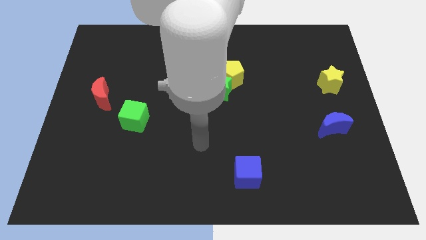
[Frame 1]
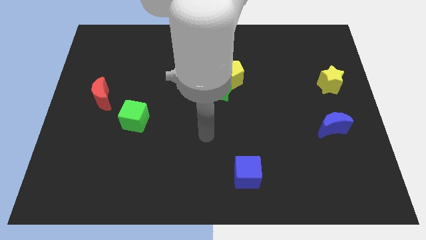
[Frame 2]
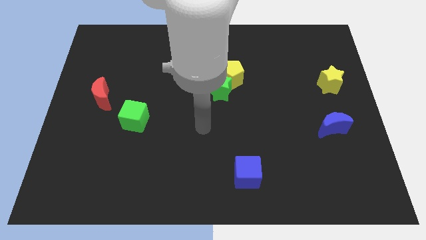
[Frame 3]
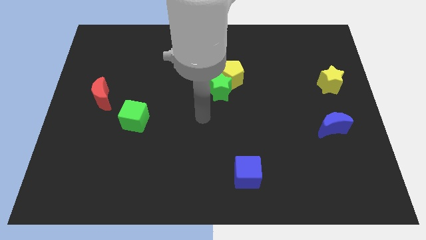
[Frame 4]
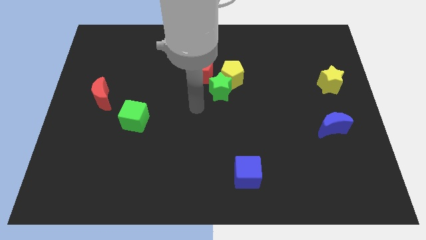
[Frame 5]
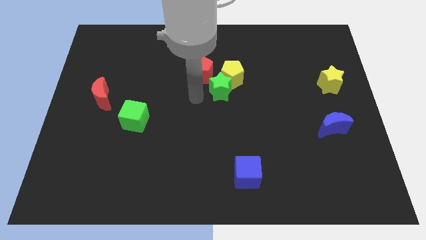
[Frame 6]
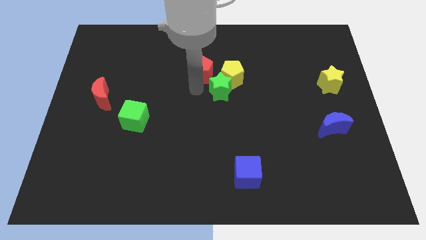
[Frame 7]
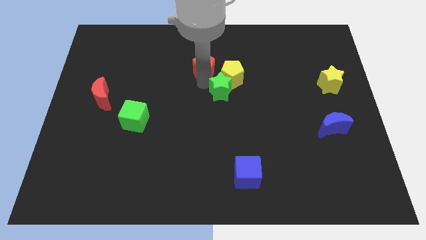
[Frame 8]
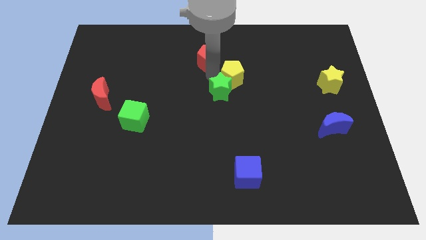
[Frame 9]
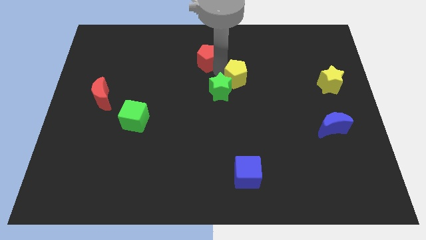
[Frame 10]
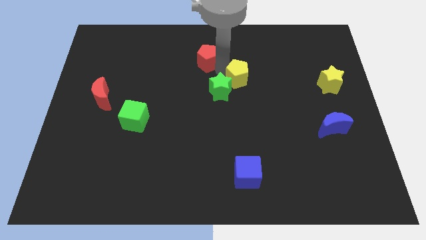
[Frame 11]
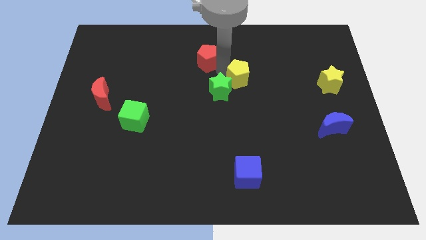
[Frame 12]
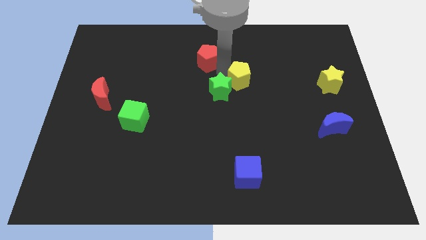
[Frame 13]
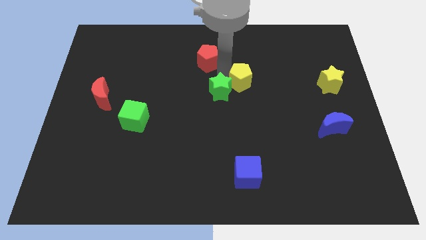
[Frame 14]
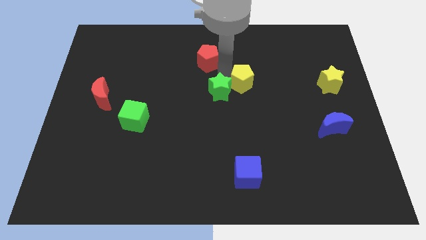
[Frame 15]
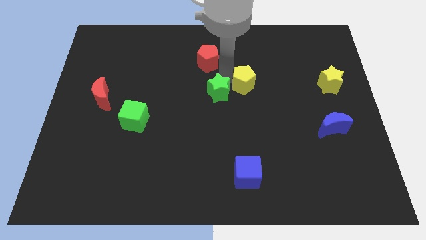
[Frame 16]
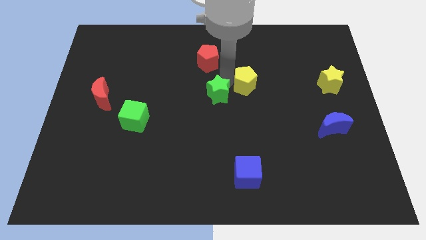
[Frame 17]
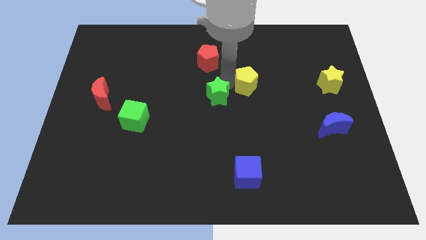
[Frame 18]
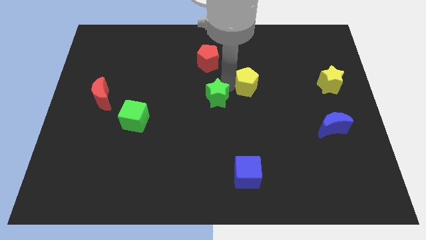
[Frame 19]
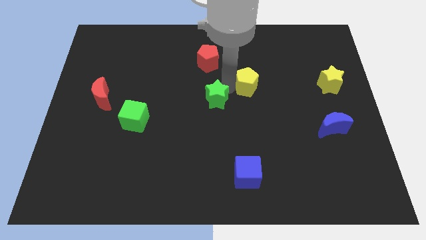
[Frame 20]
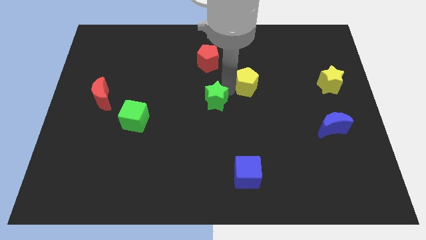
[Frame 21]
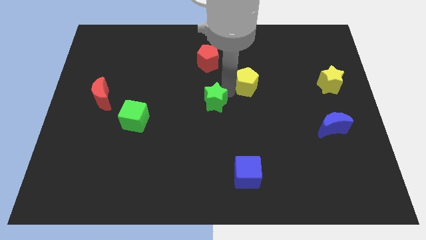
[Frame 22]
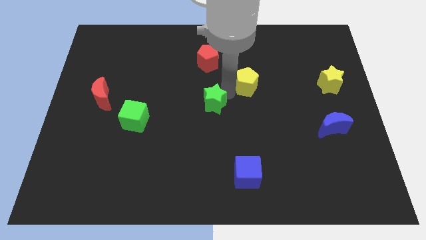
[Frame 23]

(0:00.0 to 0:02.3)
pull the green star apart from the yellow pentagon and red pentagon

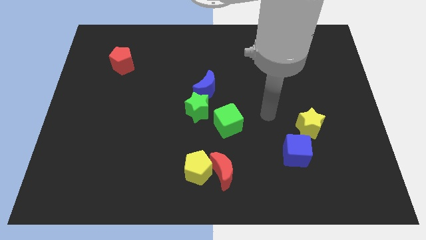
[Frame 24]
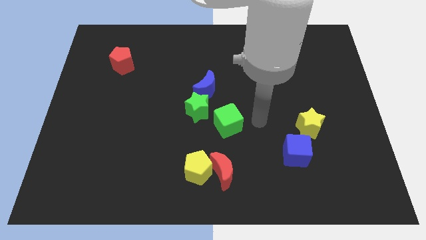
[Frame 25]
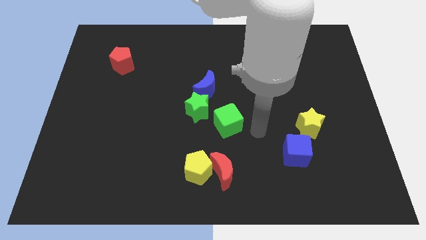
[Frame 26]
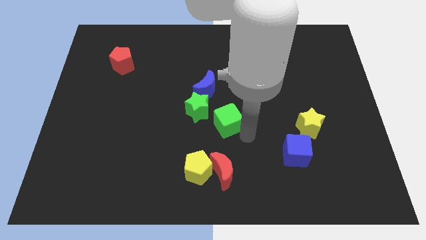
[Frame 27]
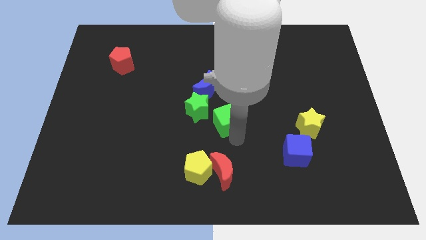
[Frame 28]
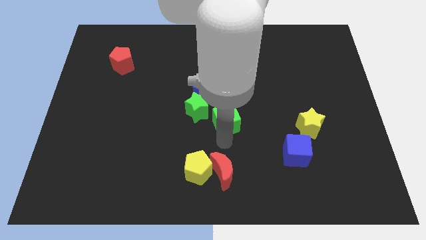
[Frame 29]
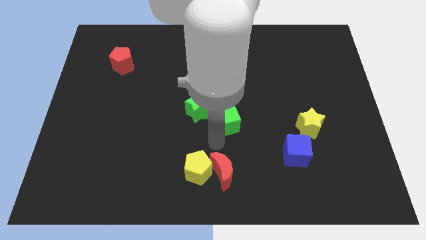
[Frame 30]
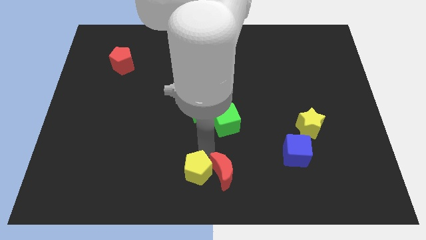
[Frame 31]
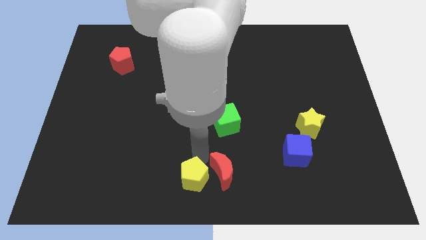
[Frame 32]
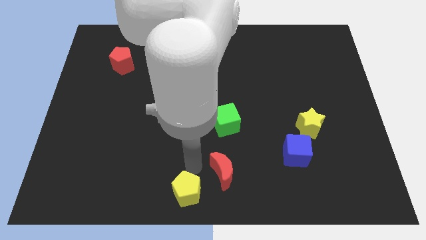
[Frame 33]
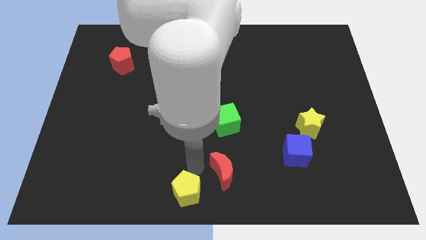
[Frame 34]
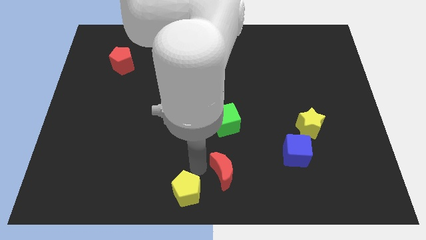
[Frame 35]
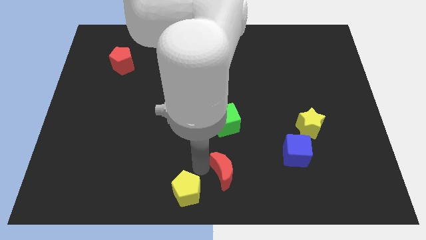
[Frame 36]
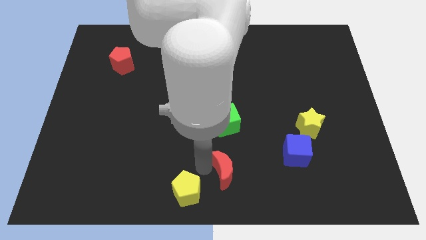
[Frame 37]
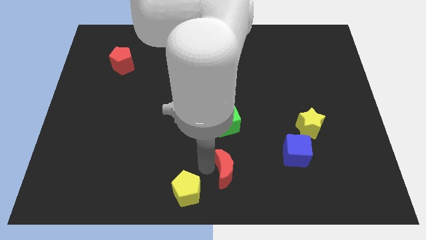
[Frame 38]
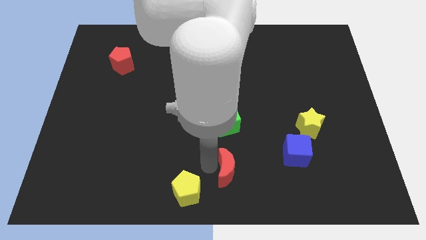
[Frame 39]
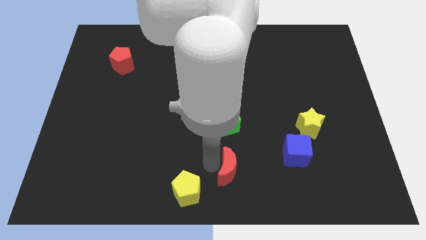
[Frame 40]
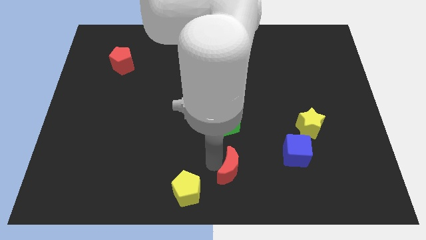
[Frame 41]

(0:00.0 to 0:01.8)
separate the red moon from the yellow pentagon

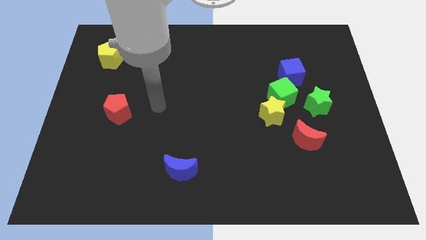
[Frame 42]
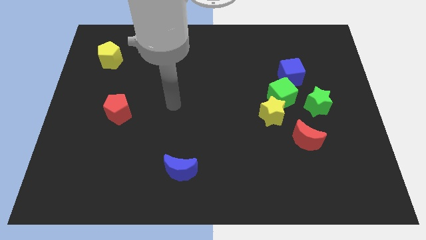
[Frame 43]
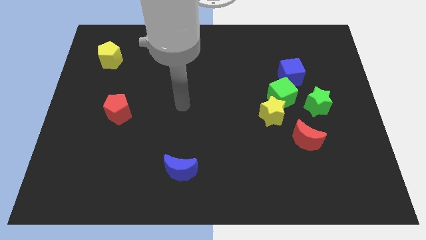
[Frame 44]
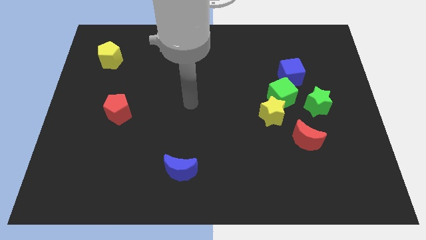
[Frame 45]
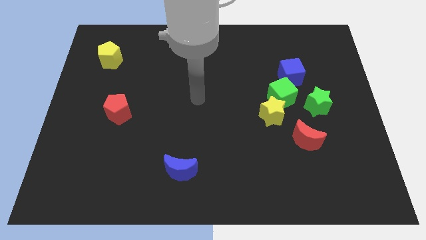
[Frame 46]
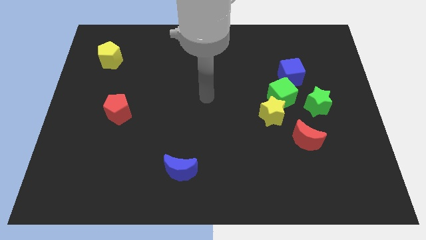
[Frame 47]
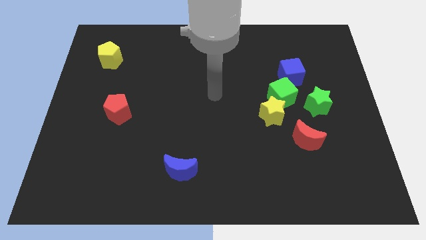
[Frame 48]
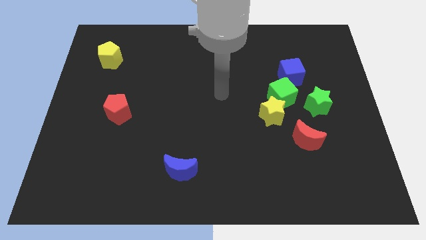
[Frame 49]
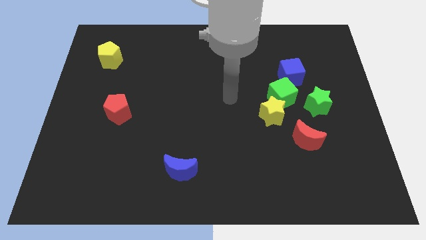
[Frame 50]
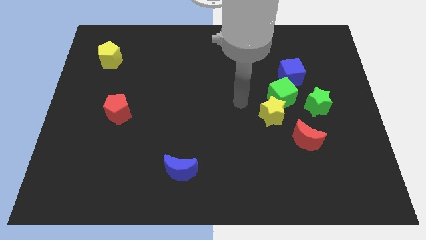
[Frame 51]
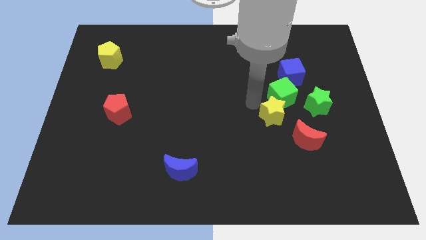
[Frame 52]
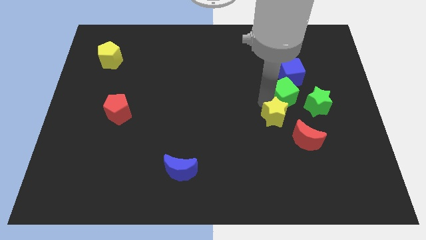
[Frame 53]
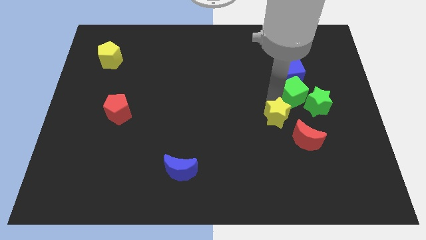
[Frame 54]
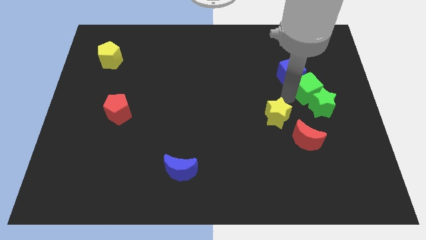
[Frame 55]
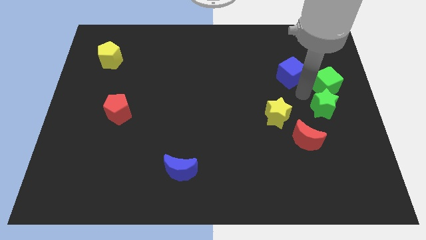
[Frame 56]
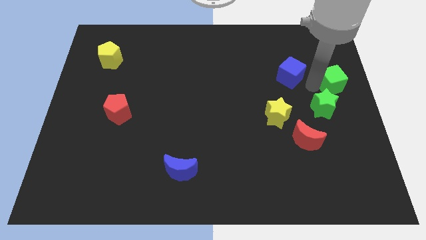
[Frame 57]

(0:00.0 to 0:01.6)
move the blue cube away from the green cube

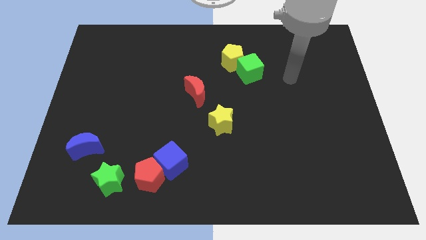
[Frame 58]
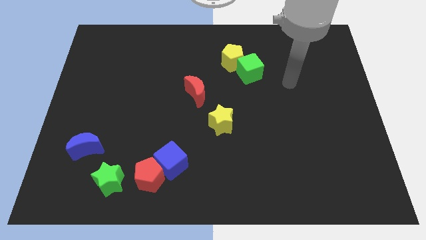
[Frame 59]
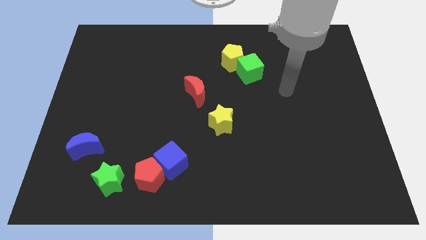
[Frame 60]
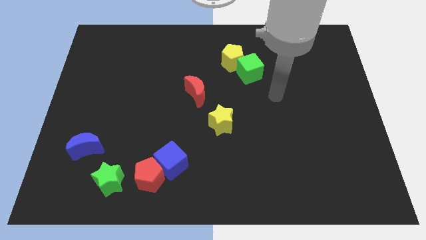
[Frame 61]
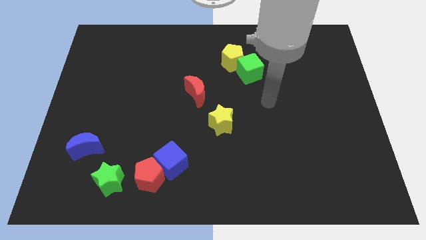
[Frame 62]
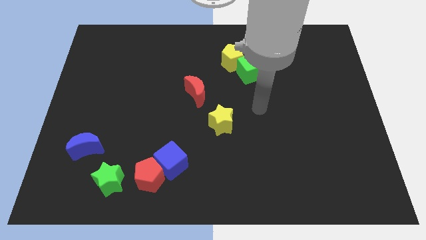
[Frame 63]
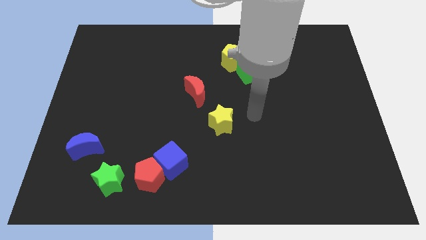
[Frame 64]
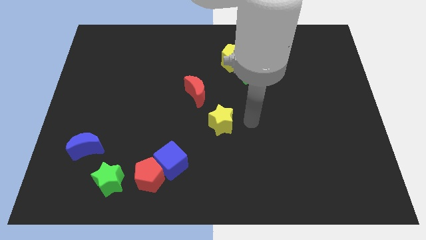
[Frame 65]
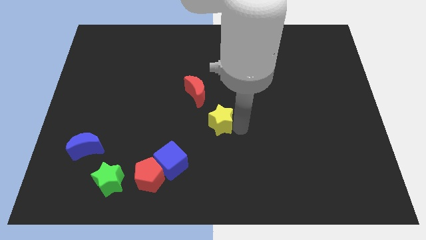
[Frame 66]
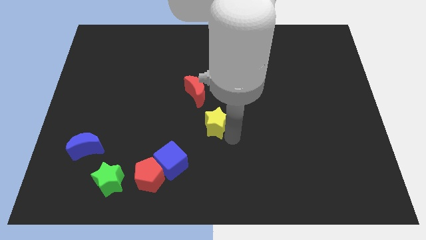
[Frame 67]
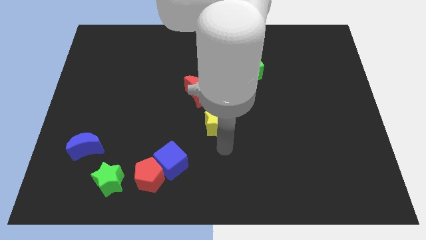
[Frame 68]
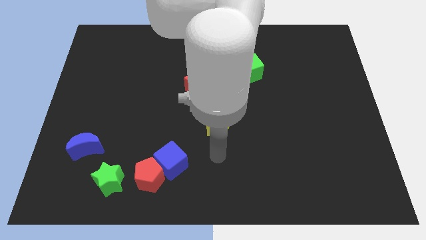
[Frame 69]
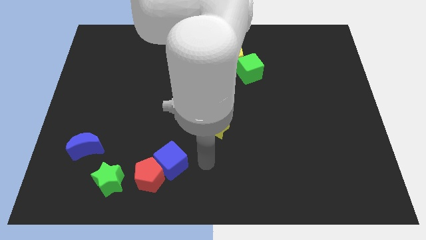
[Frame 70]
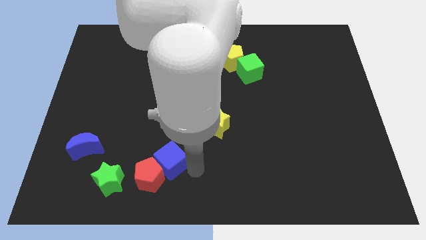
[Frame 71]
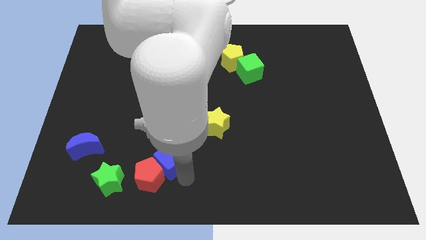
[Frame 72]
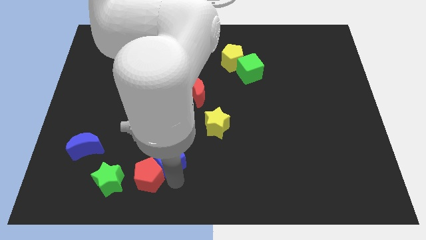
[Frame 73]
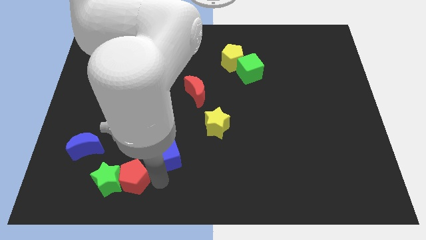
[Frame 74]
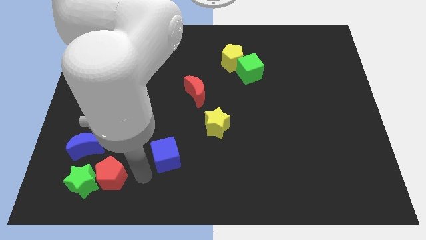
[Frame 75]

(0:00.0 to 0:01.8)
pull the blue cube apart from the red pentagon

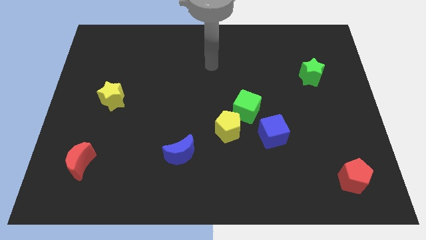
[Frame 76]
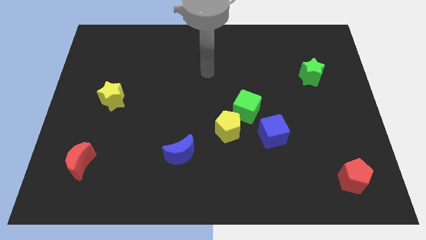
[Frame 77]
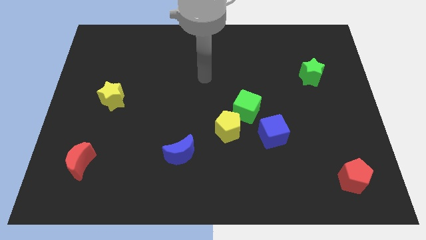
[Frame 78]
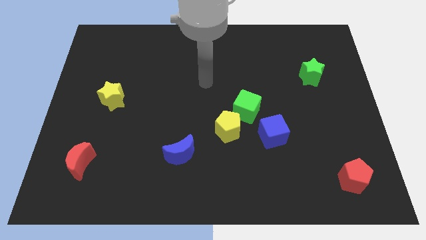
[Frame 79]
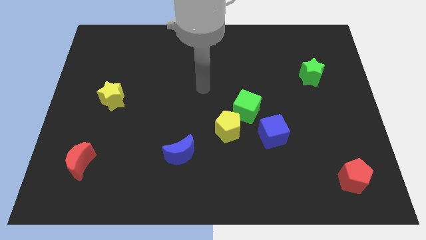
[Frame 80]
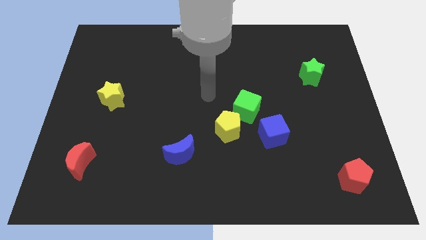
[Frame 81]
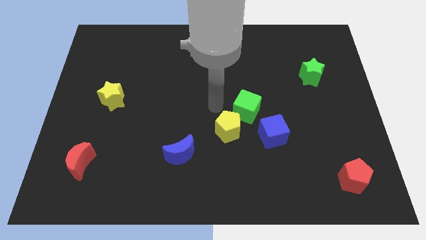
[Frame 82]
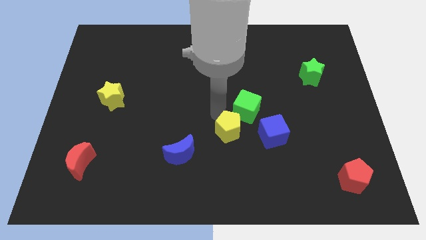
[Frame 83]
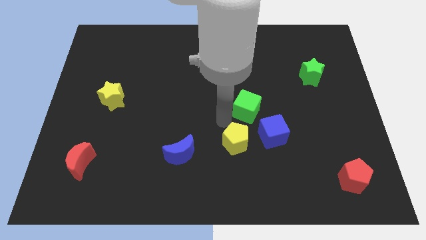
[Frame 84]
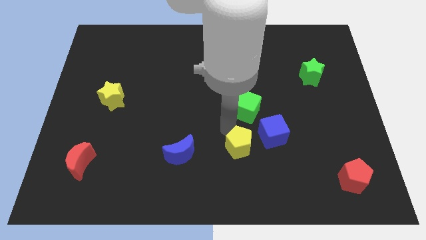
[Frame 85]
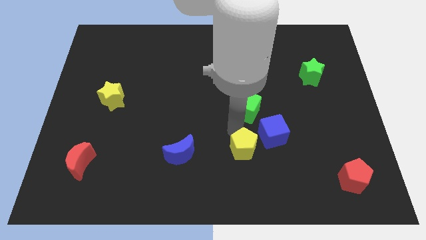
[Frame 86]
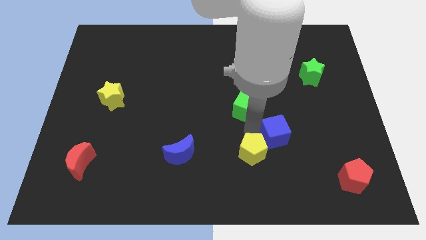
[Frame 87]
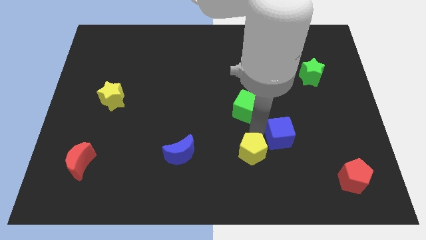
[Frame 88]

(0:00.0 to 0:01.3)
pull the green cube apart from the yellow pentagon and blue cube

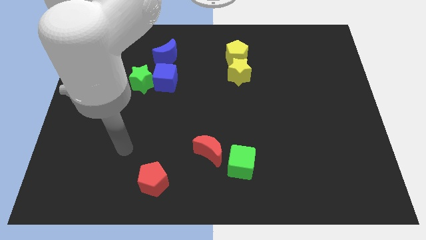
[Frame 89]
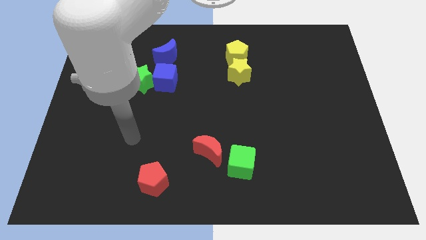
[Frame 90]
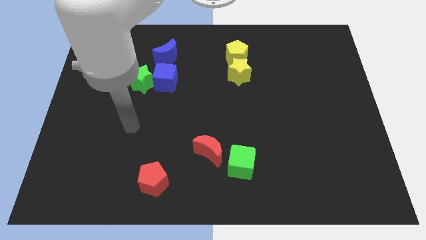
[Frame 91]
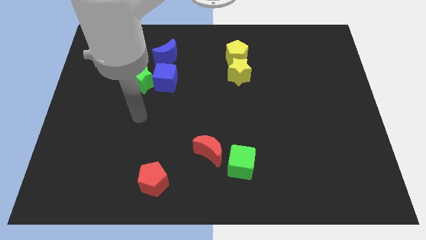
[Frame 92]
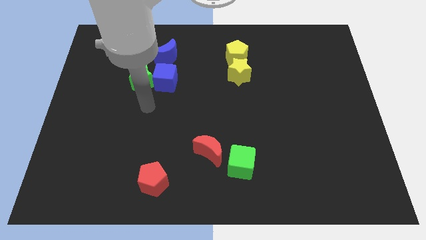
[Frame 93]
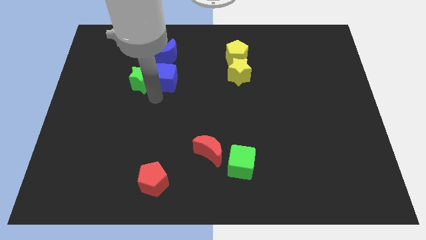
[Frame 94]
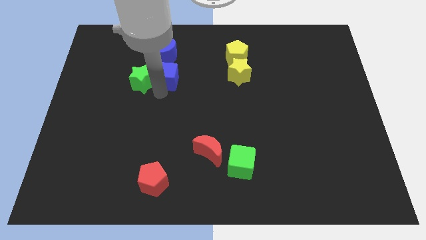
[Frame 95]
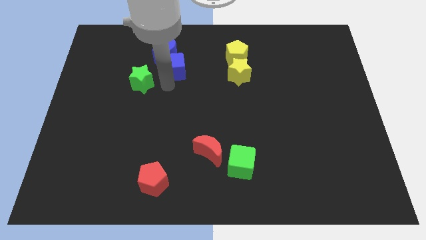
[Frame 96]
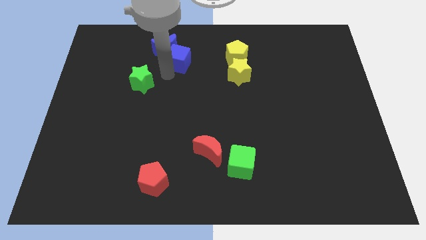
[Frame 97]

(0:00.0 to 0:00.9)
pull the green star apart from the blue cube
